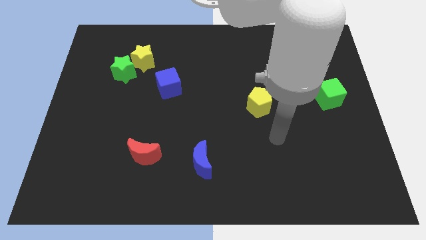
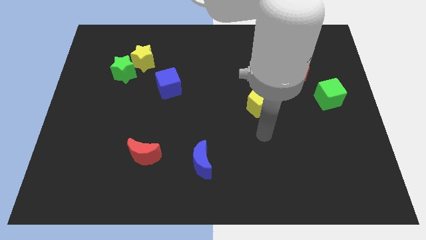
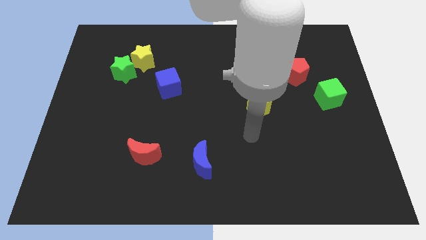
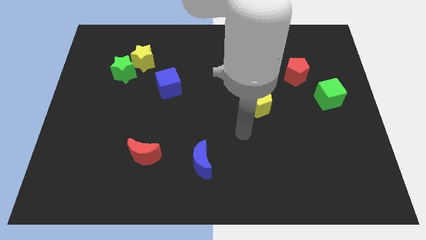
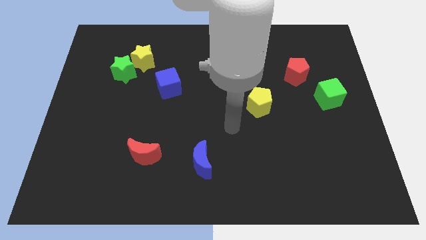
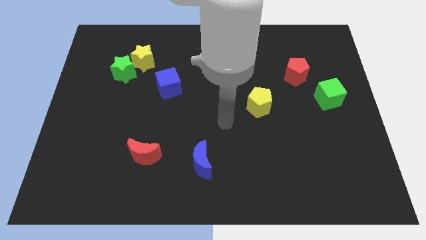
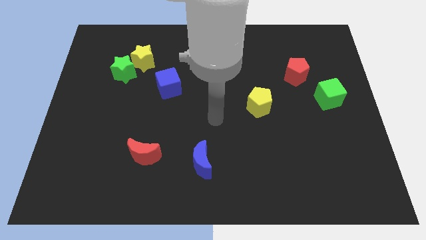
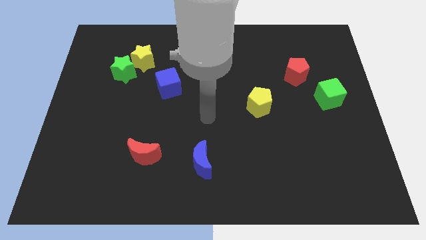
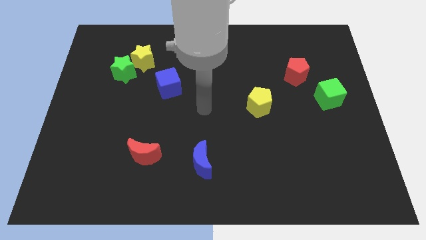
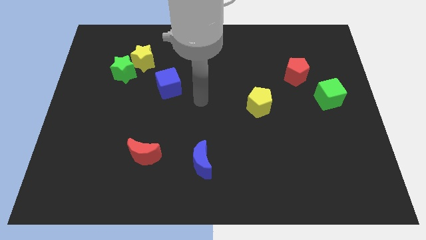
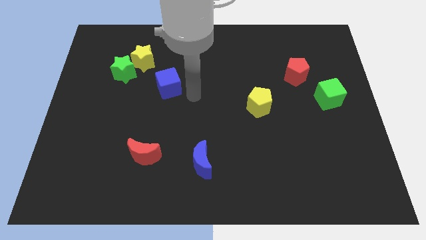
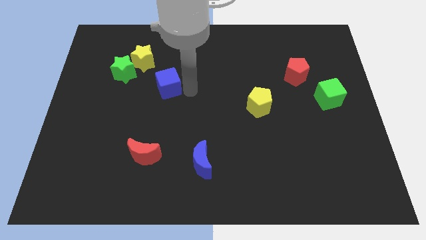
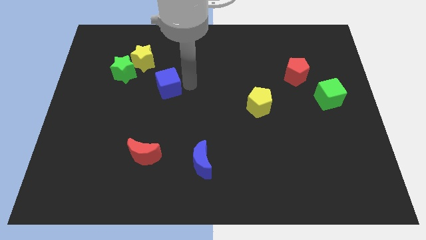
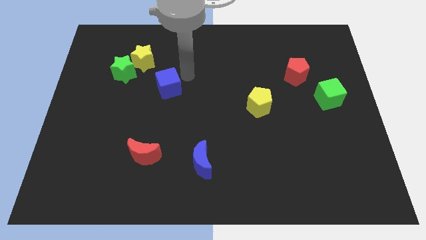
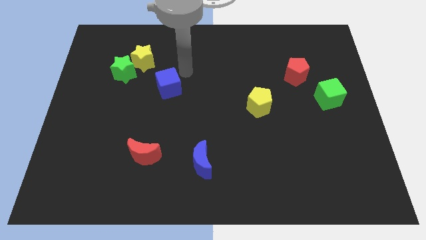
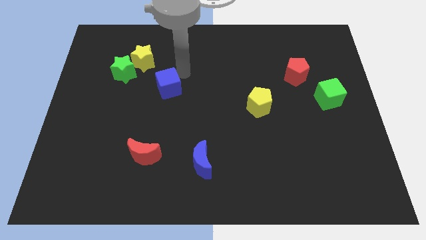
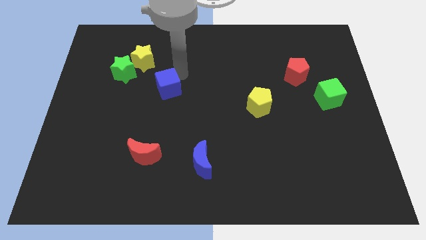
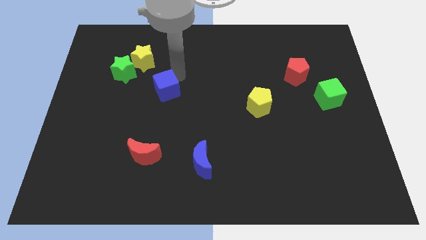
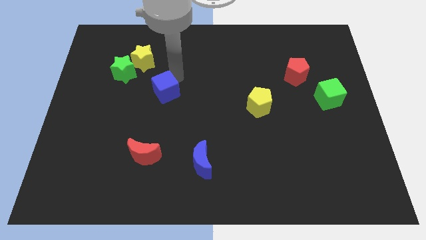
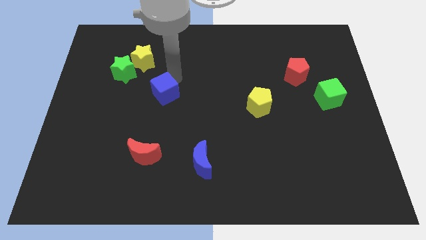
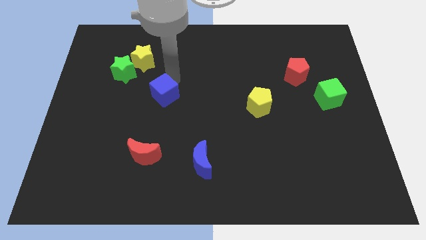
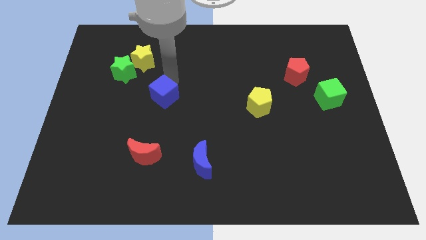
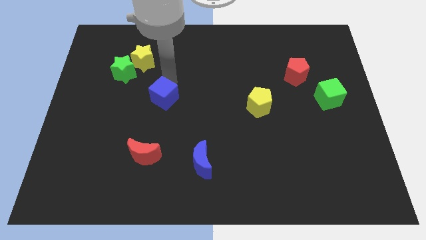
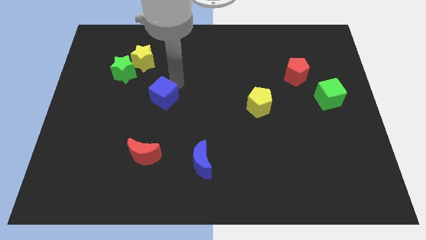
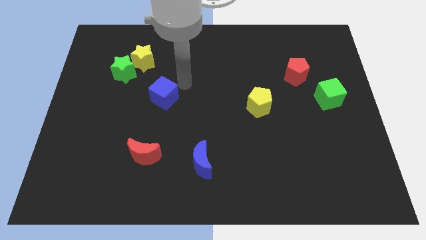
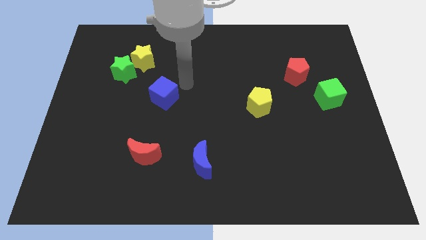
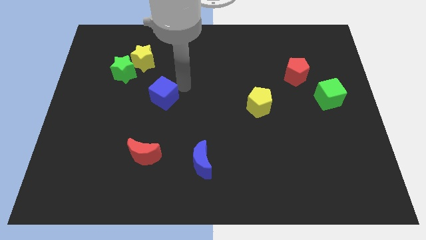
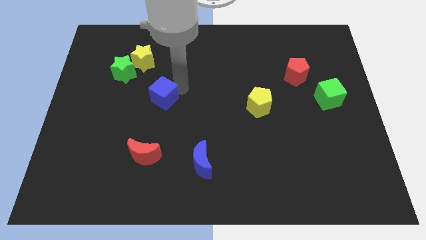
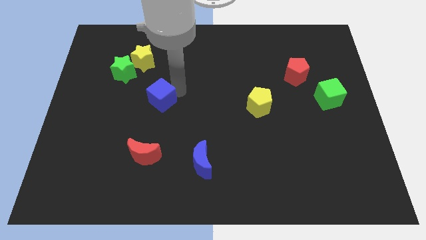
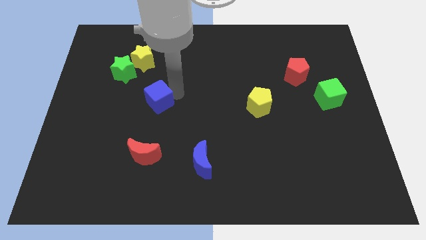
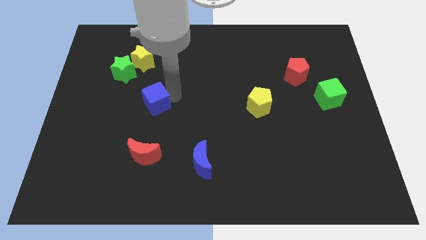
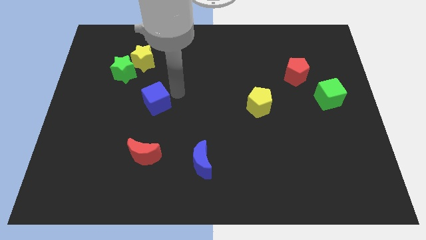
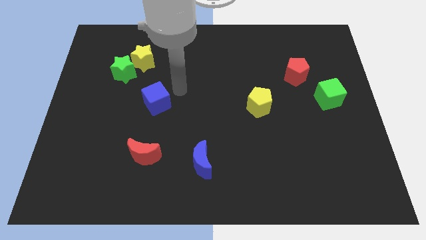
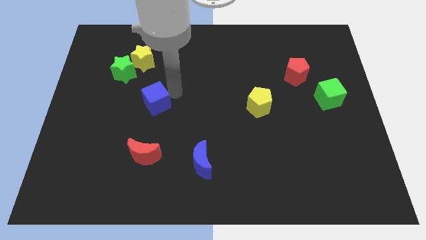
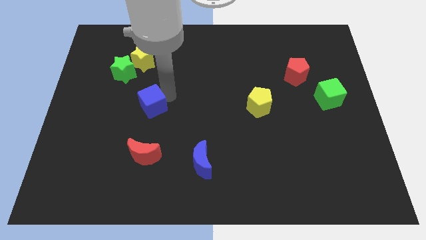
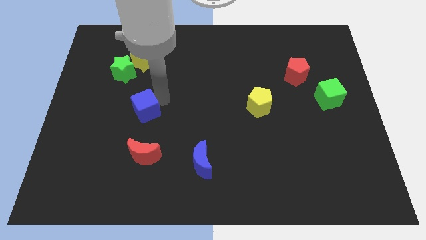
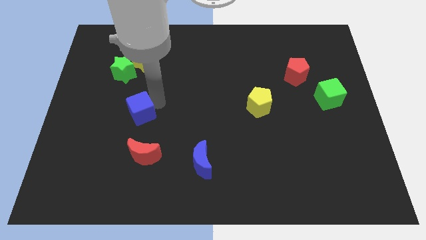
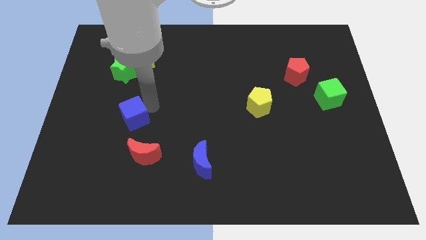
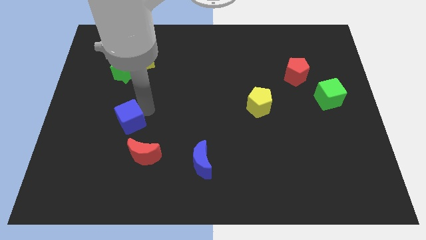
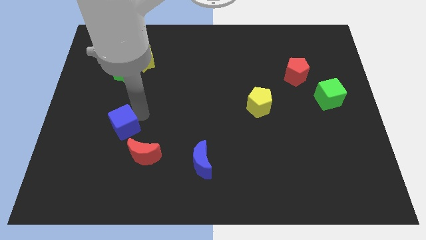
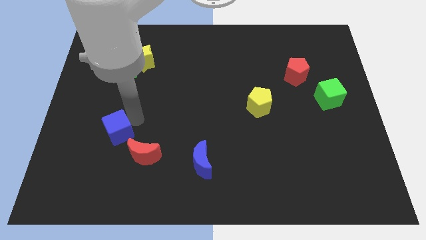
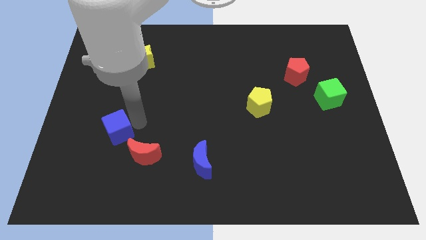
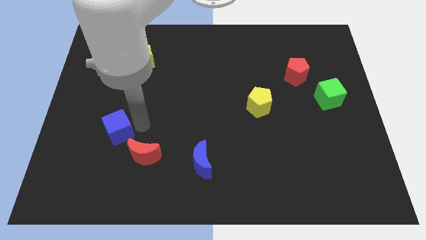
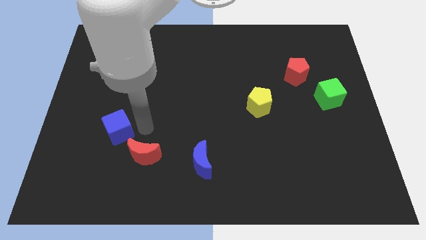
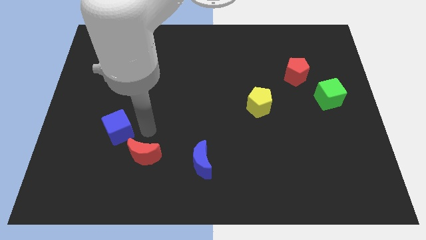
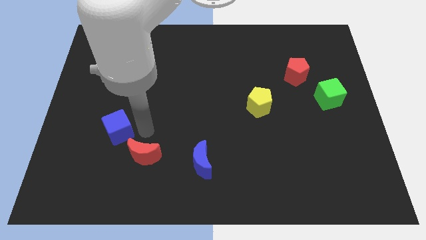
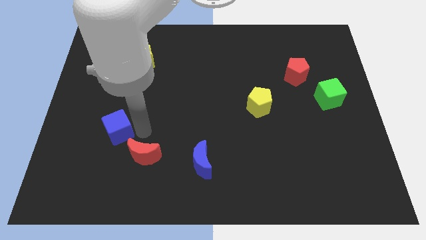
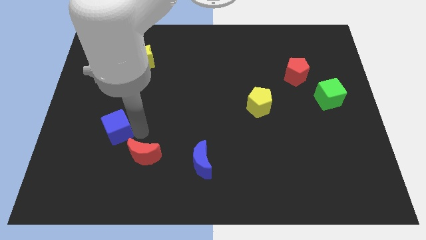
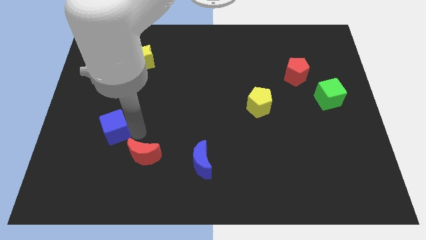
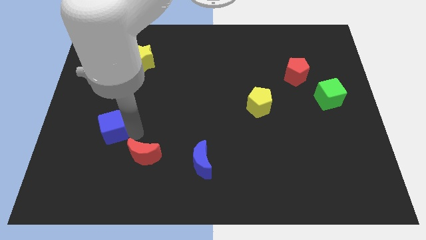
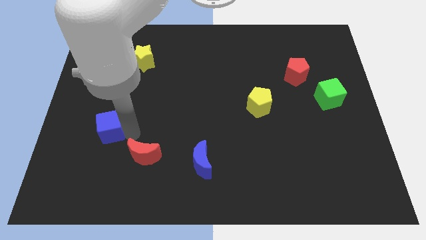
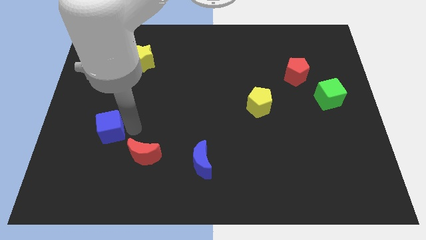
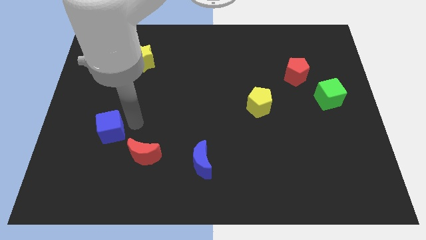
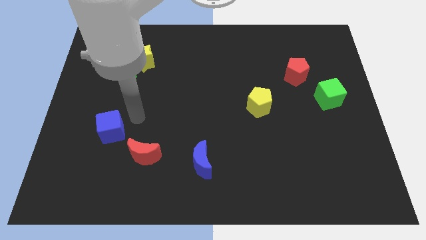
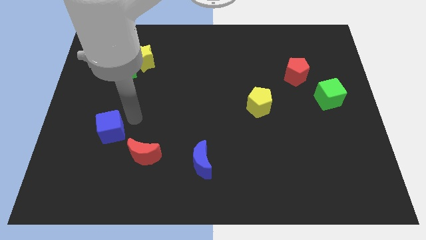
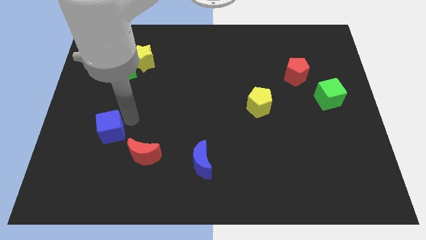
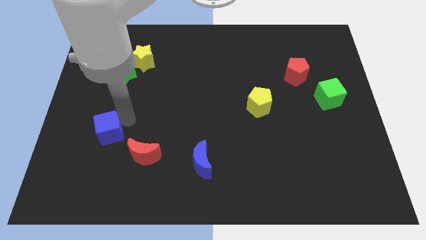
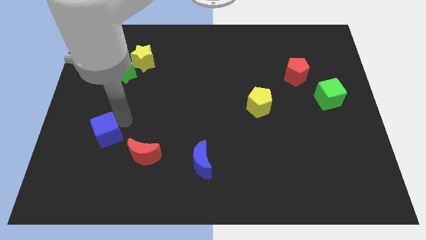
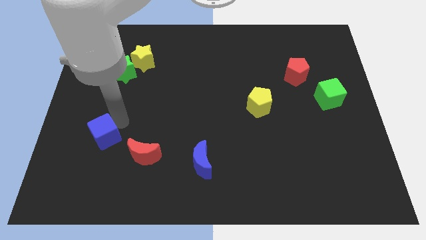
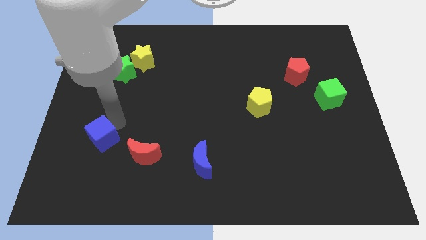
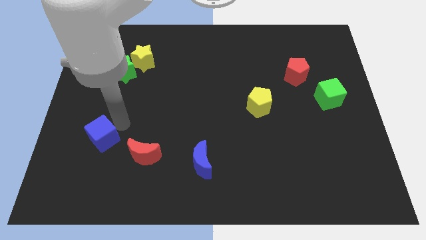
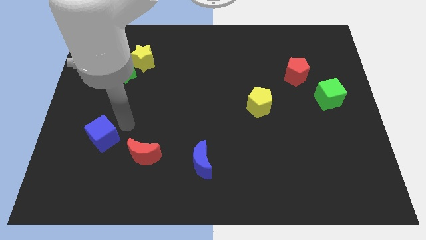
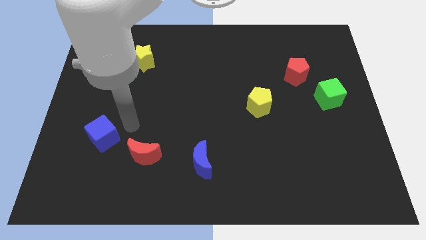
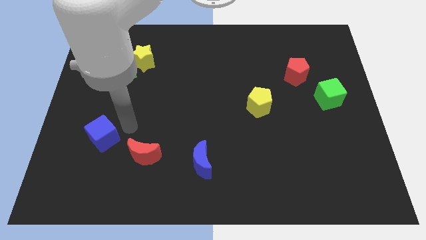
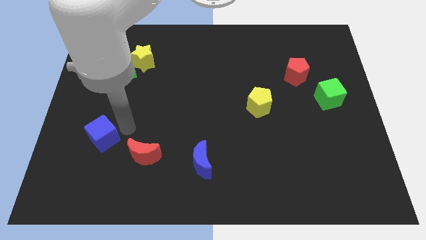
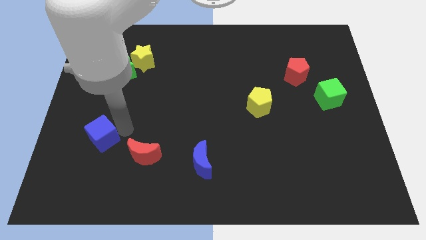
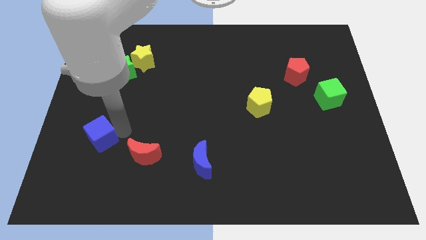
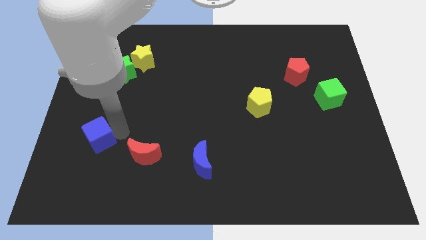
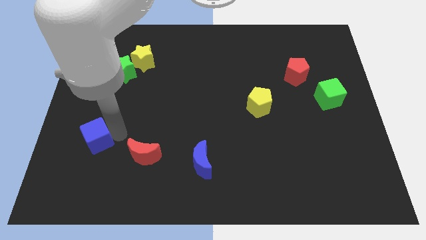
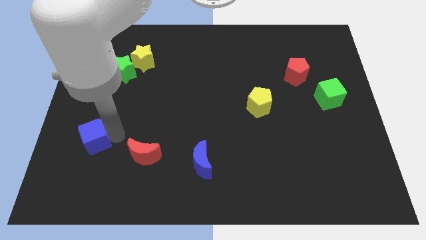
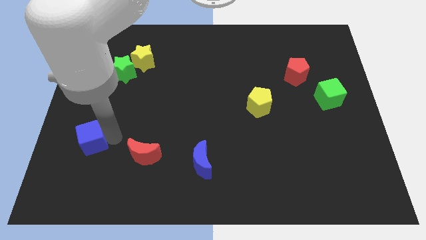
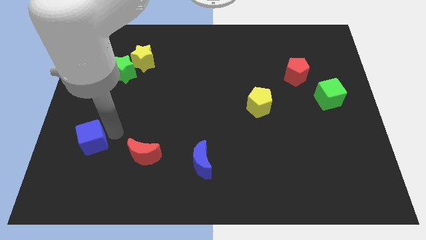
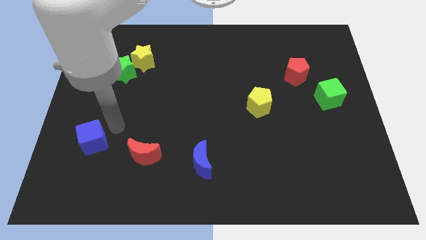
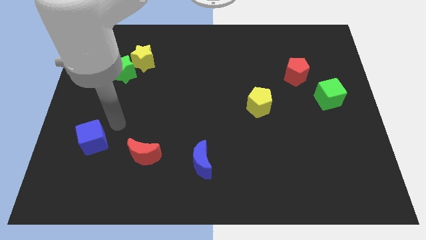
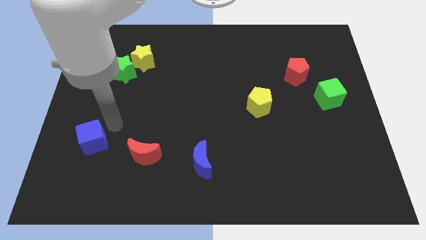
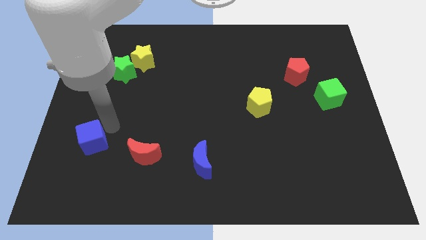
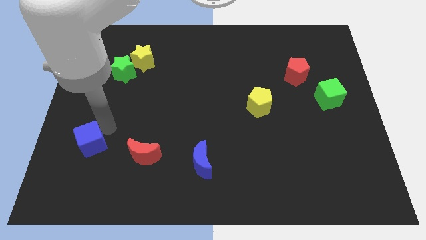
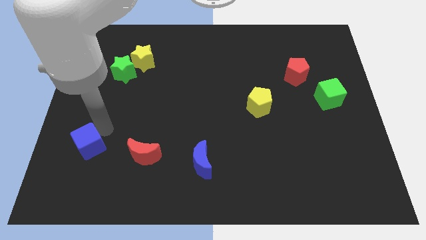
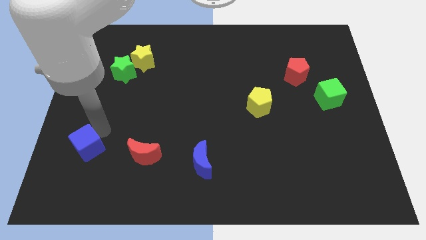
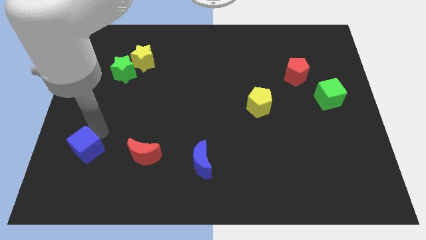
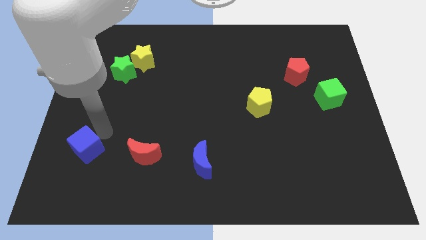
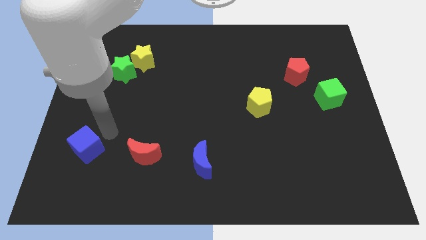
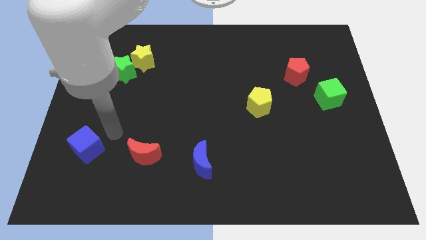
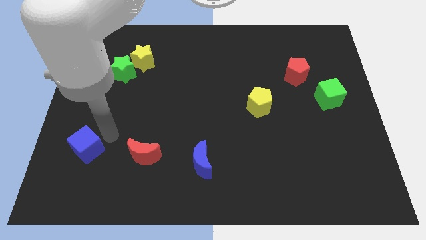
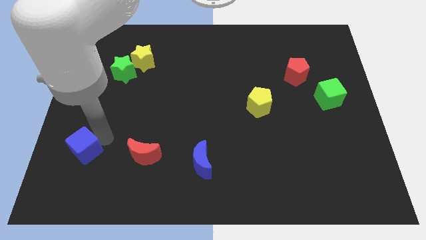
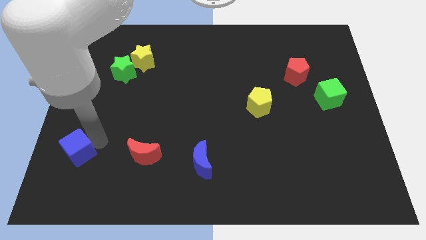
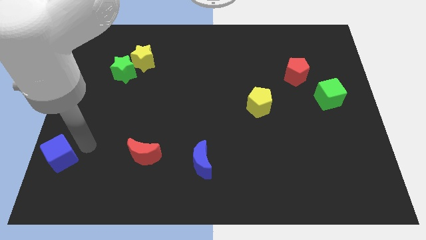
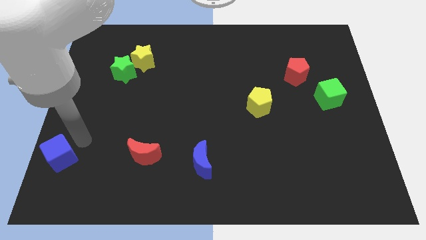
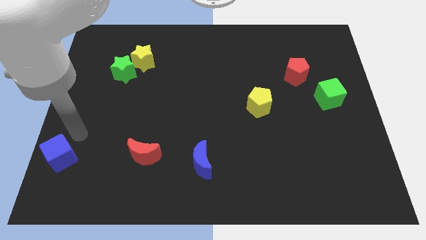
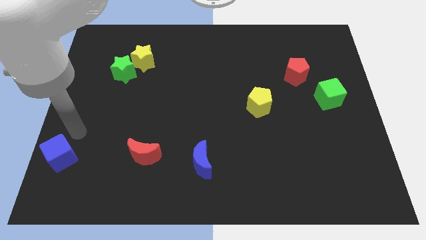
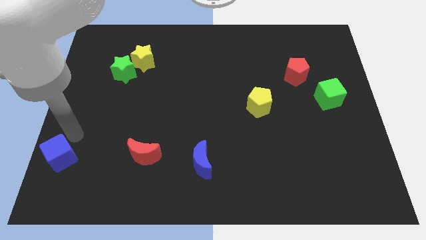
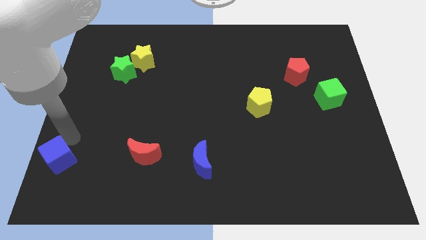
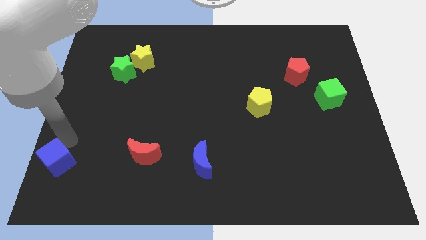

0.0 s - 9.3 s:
put the blue cube to the bottom left
